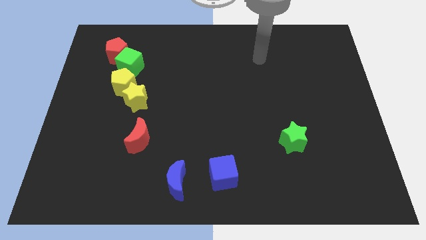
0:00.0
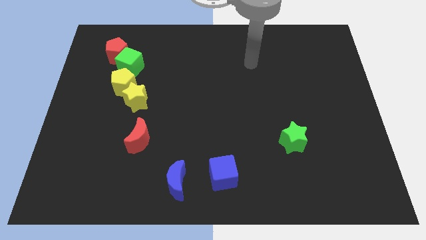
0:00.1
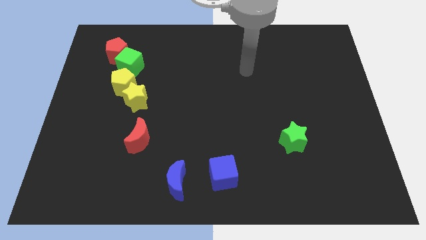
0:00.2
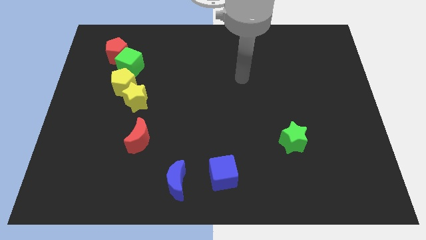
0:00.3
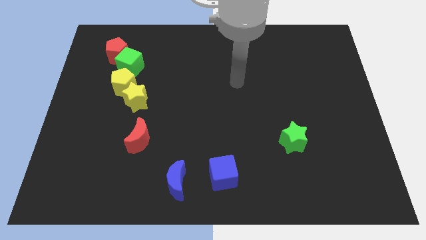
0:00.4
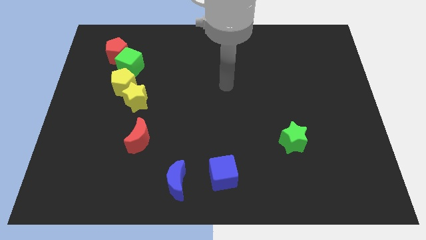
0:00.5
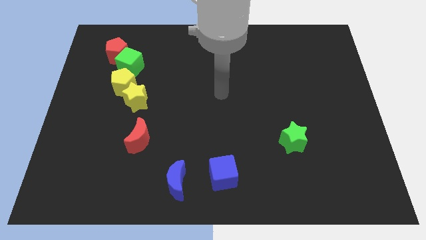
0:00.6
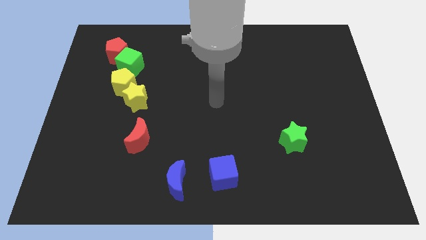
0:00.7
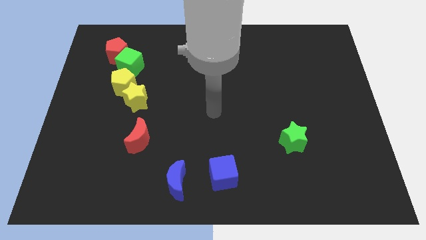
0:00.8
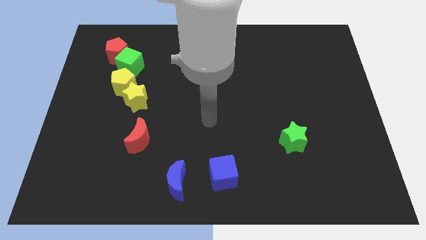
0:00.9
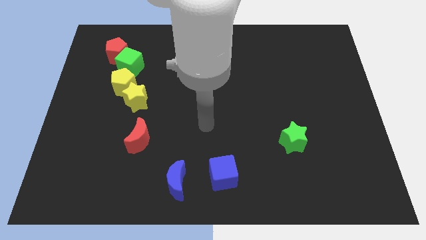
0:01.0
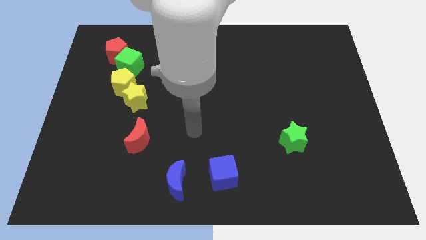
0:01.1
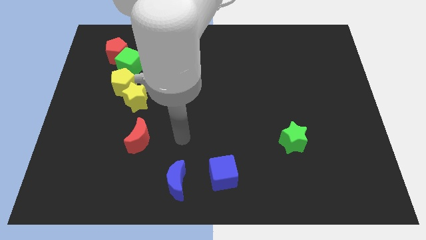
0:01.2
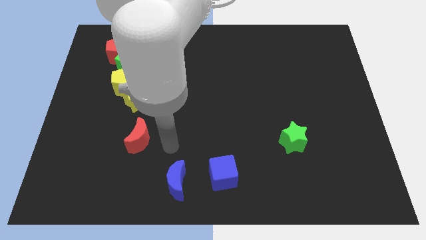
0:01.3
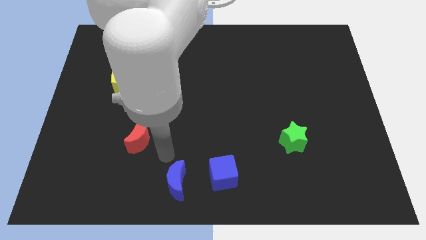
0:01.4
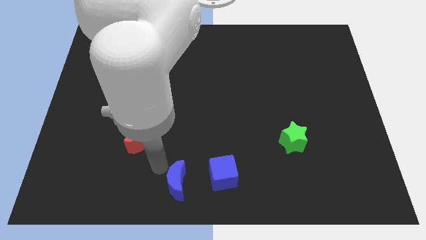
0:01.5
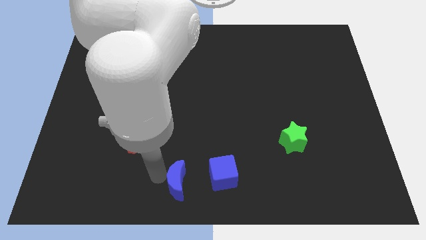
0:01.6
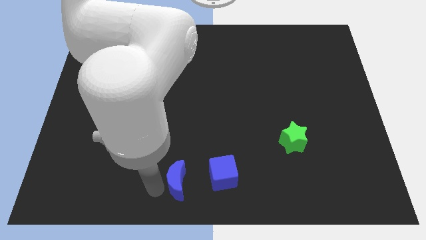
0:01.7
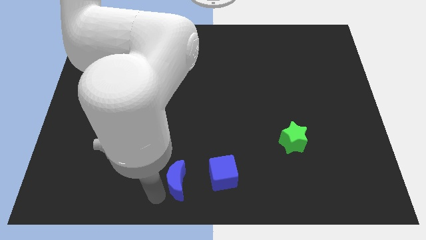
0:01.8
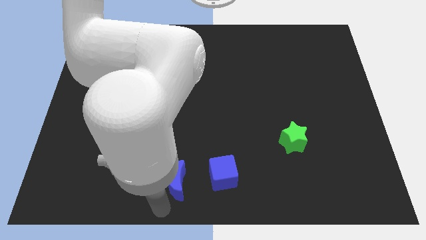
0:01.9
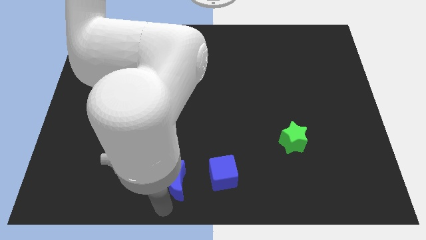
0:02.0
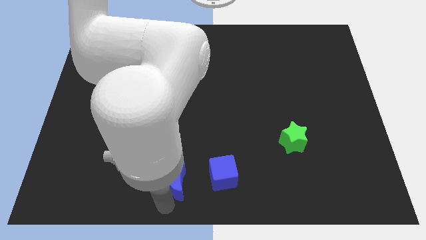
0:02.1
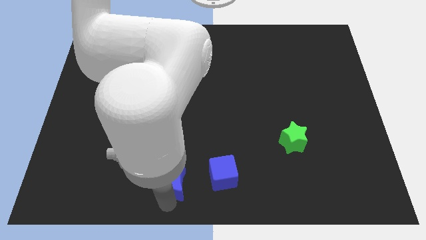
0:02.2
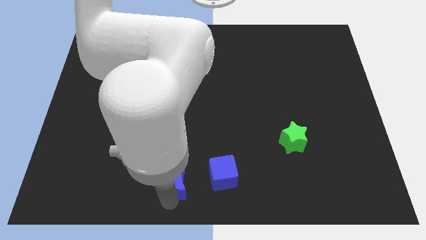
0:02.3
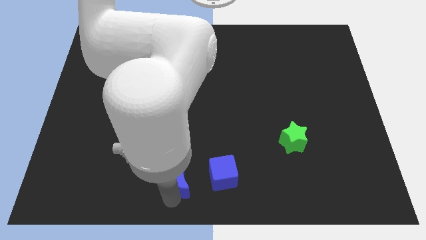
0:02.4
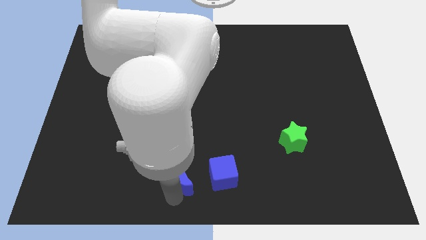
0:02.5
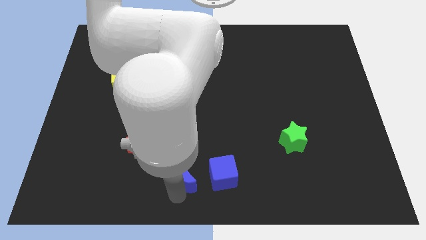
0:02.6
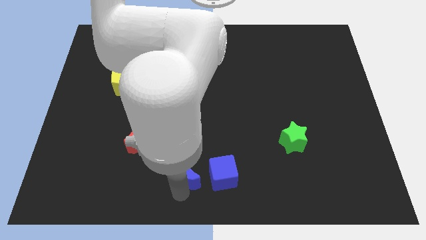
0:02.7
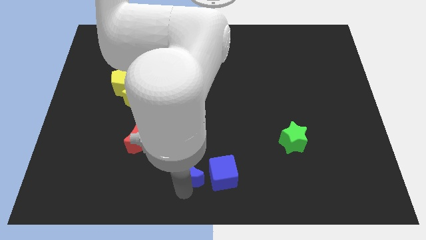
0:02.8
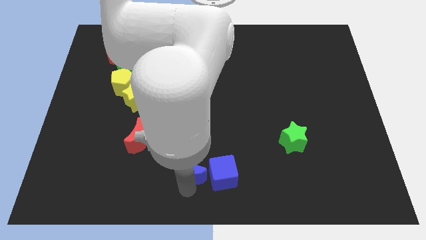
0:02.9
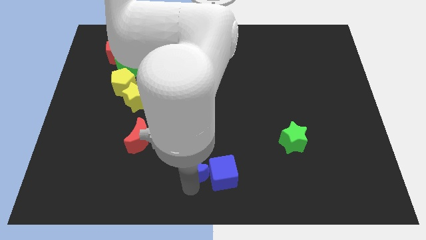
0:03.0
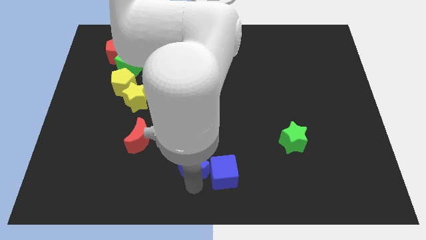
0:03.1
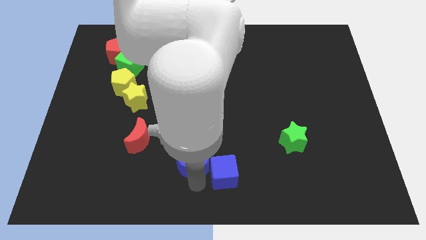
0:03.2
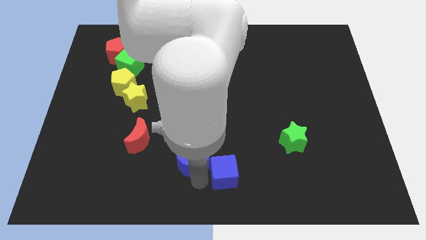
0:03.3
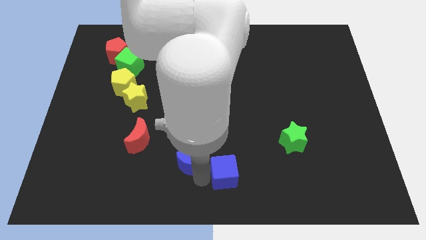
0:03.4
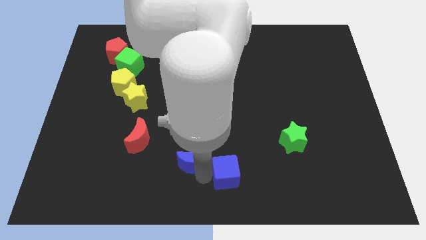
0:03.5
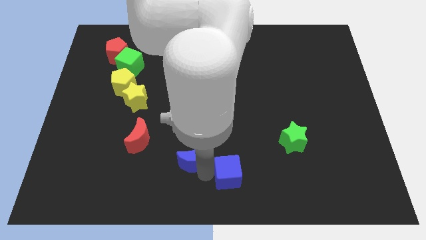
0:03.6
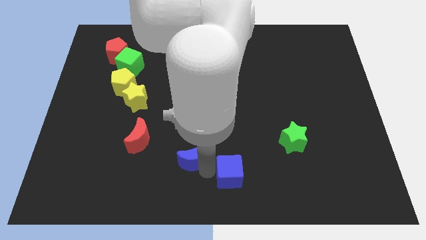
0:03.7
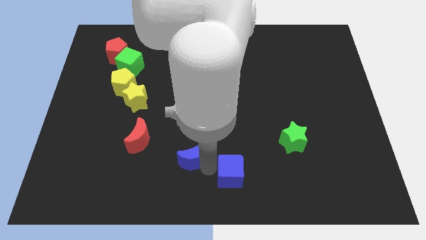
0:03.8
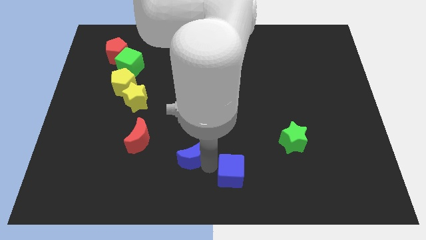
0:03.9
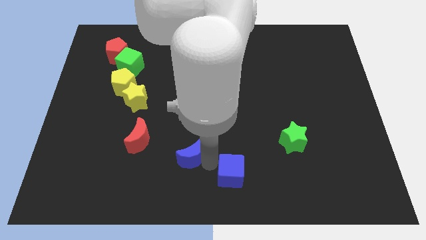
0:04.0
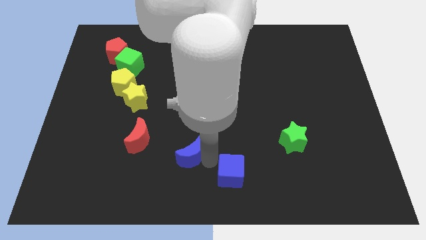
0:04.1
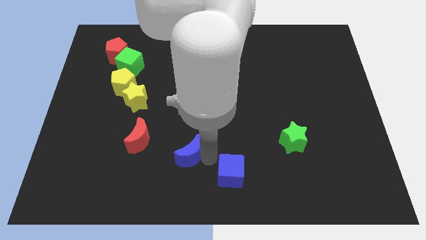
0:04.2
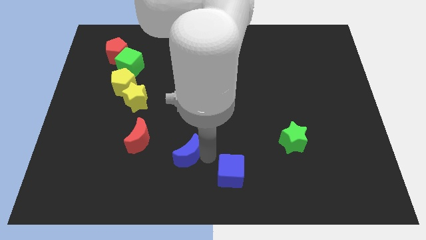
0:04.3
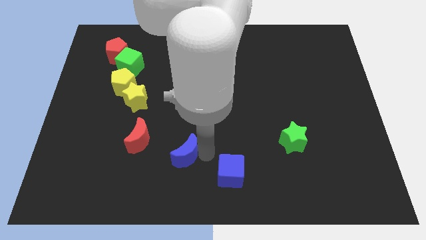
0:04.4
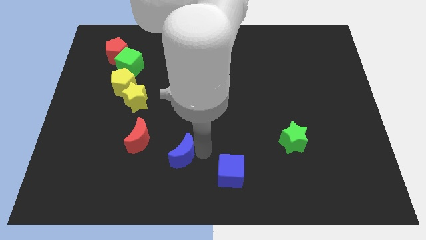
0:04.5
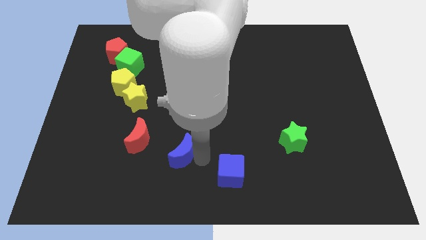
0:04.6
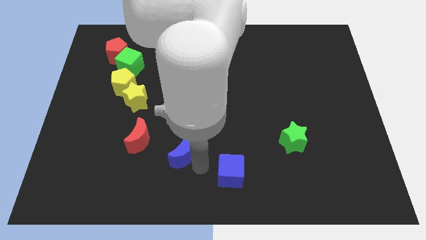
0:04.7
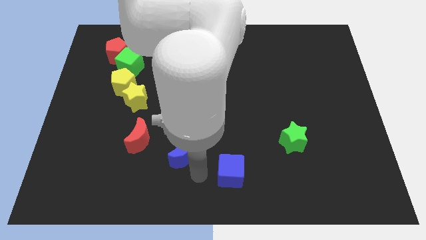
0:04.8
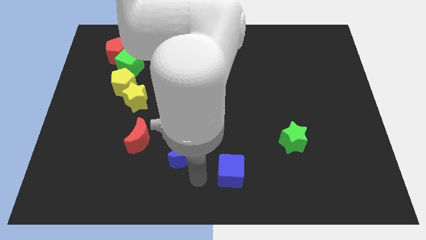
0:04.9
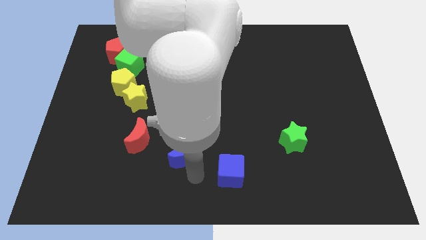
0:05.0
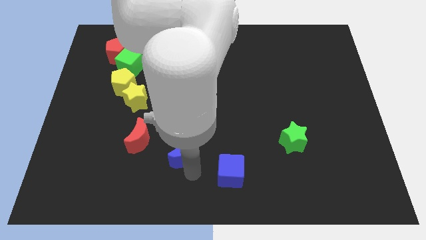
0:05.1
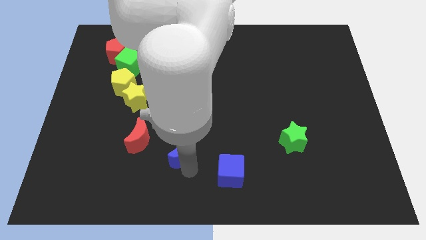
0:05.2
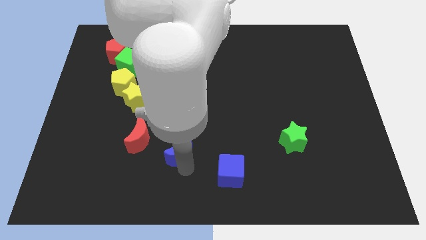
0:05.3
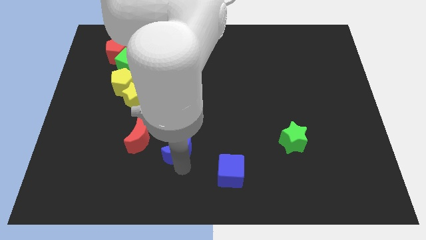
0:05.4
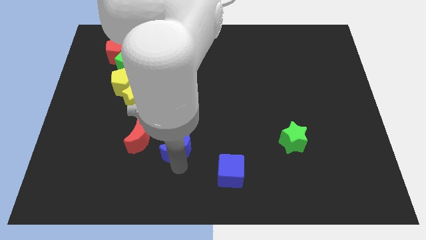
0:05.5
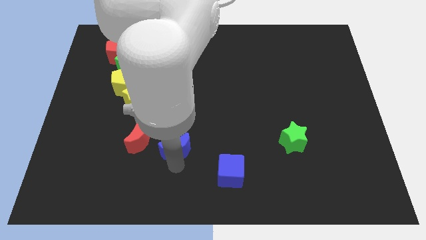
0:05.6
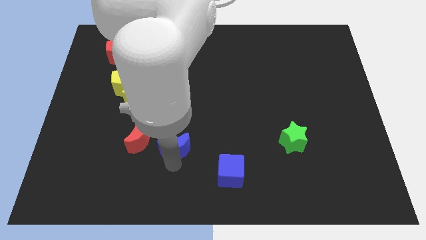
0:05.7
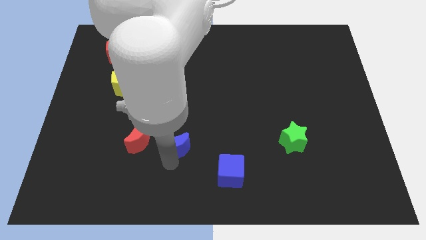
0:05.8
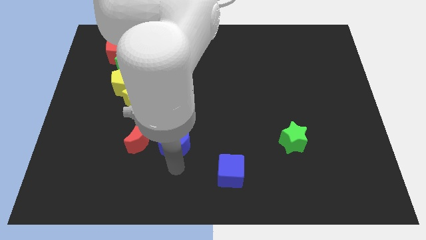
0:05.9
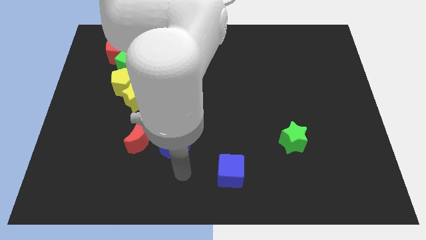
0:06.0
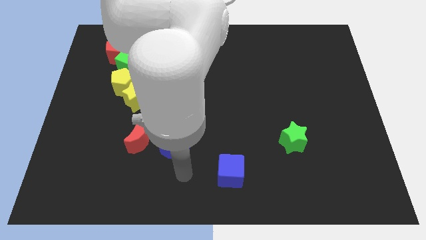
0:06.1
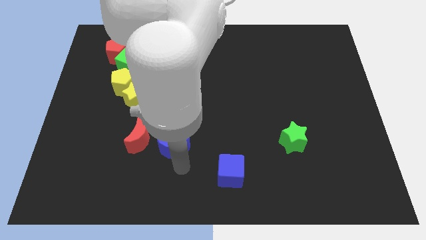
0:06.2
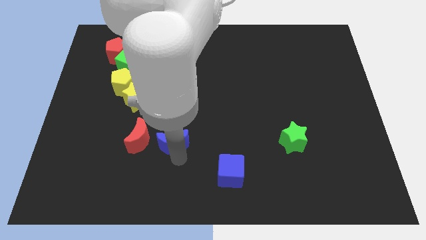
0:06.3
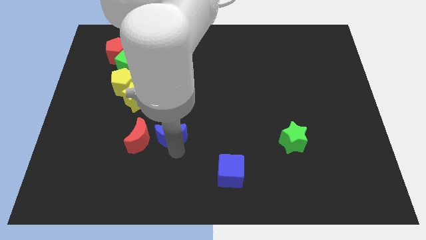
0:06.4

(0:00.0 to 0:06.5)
push the blue moon to the top right side of the red moon
